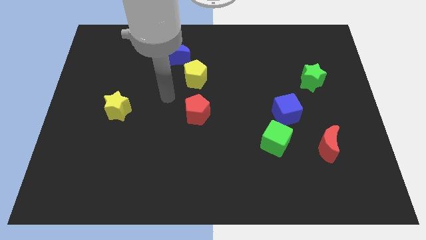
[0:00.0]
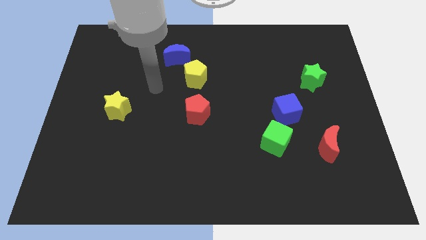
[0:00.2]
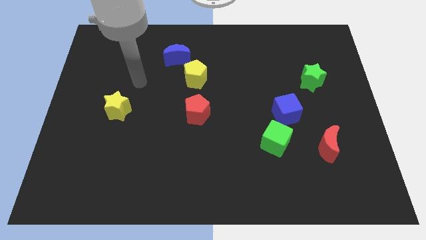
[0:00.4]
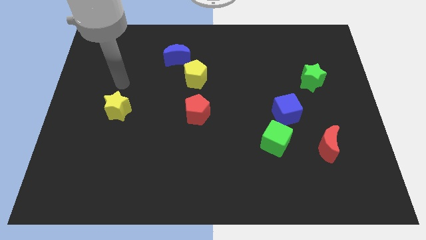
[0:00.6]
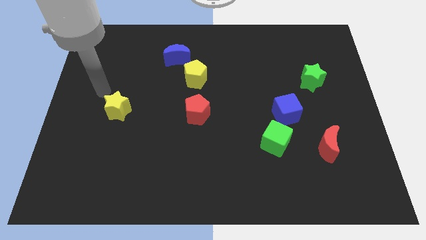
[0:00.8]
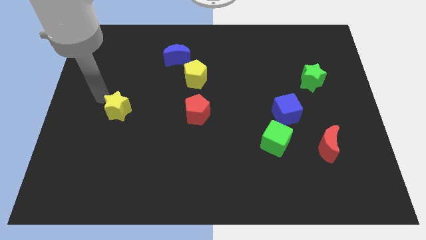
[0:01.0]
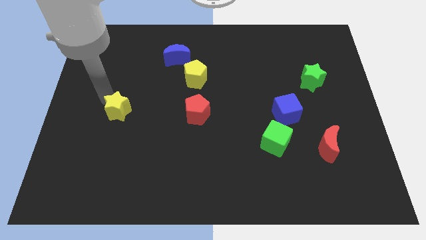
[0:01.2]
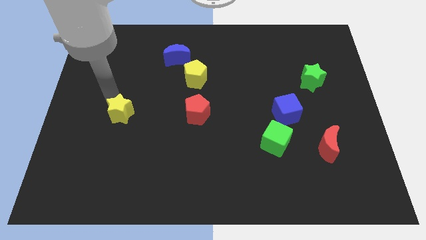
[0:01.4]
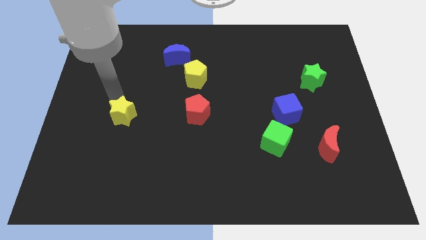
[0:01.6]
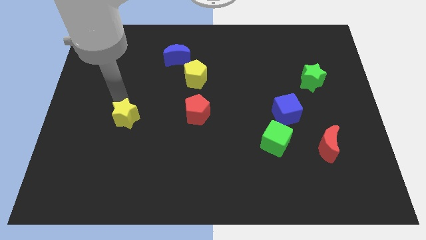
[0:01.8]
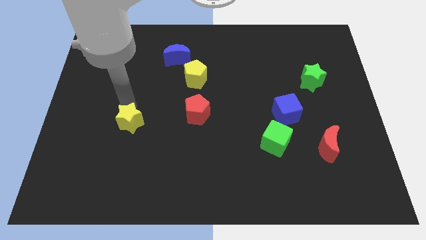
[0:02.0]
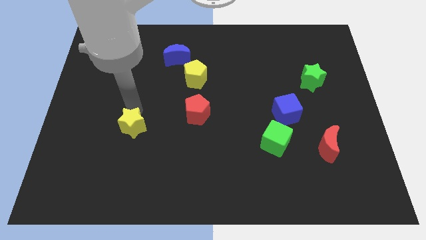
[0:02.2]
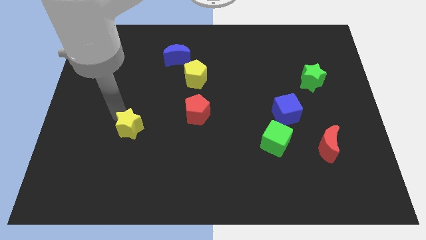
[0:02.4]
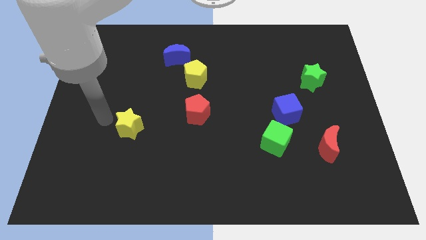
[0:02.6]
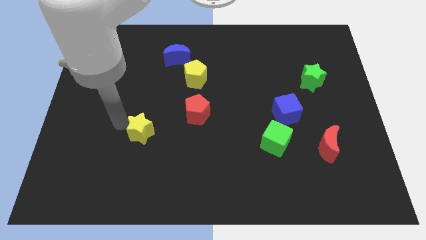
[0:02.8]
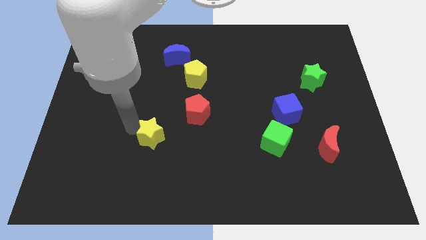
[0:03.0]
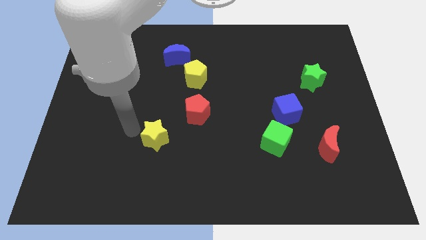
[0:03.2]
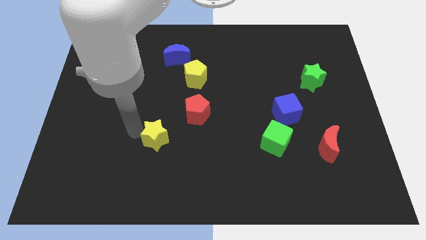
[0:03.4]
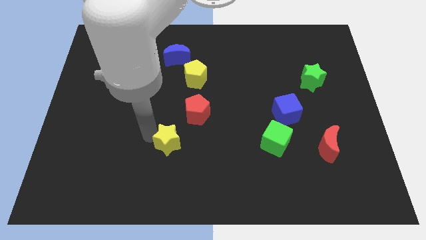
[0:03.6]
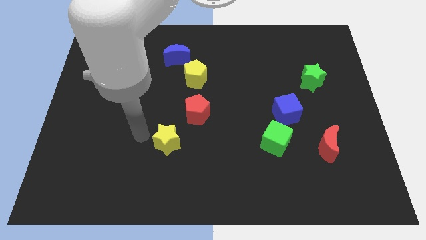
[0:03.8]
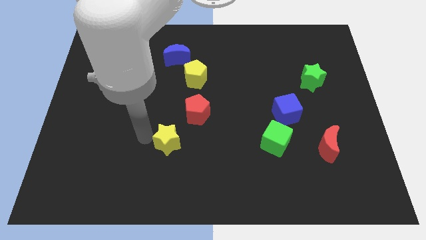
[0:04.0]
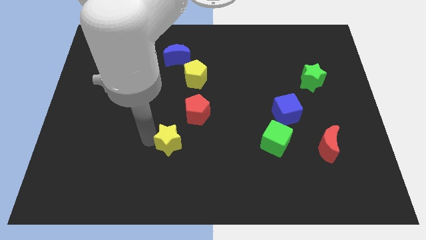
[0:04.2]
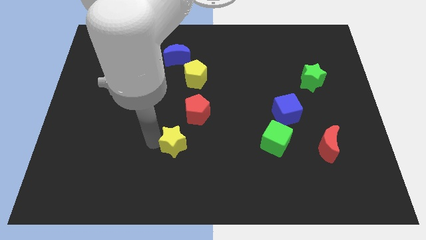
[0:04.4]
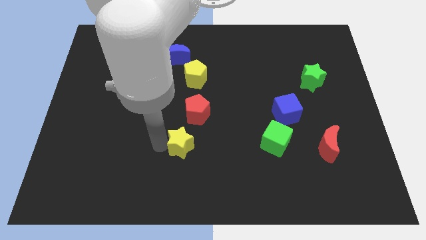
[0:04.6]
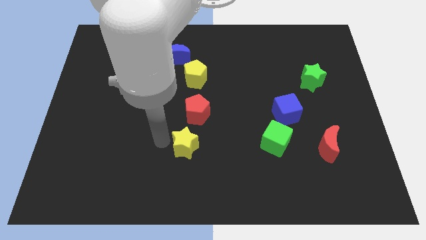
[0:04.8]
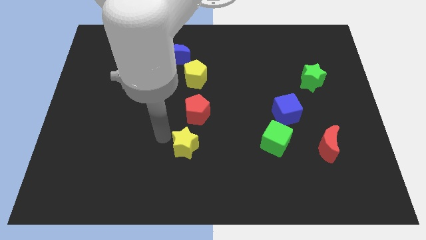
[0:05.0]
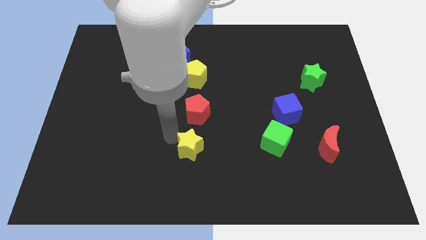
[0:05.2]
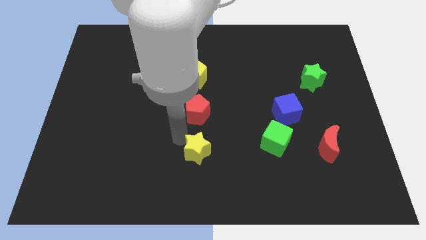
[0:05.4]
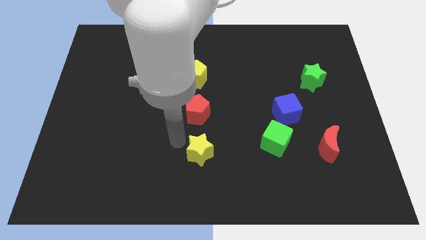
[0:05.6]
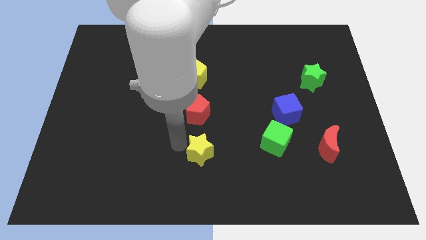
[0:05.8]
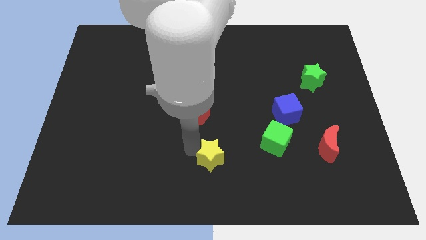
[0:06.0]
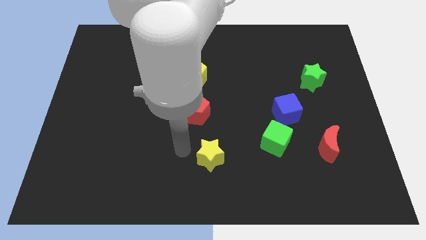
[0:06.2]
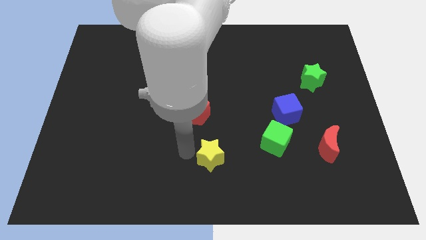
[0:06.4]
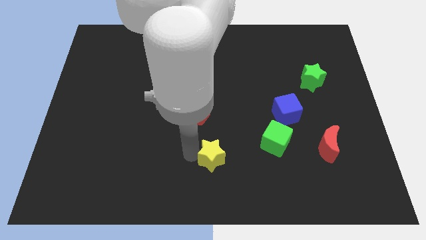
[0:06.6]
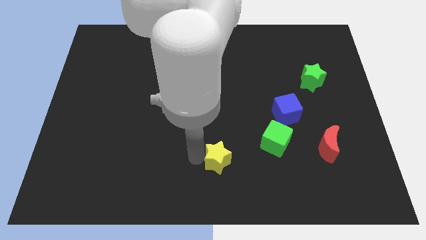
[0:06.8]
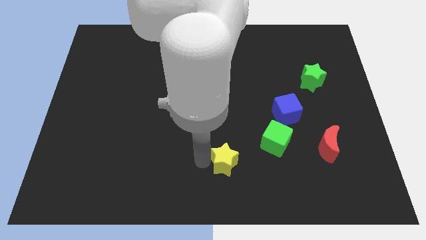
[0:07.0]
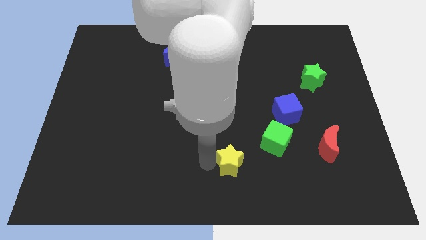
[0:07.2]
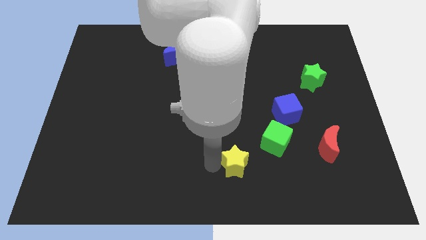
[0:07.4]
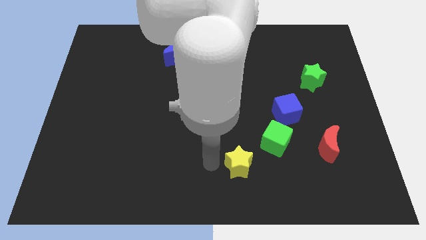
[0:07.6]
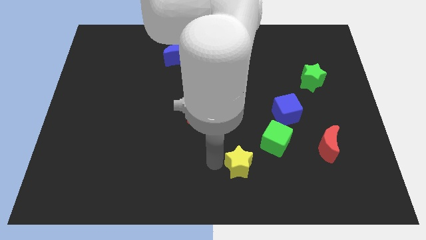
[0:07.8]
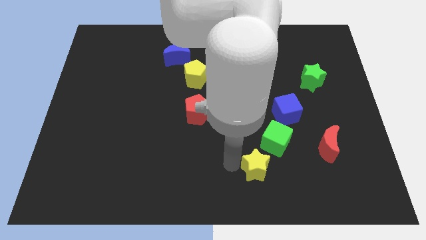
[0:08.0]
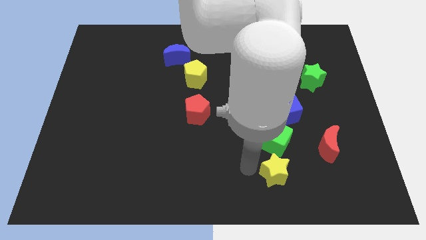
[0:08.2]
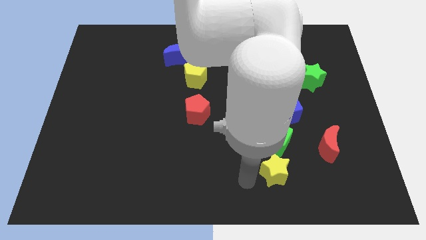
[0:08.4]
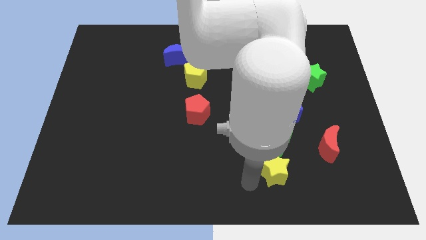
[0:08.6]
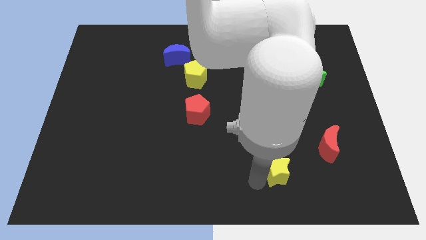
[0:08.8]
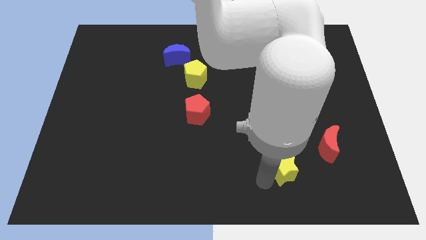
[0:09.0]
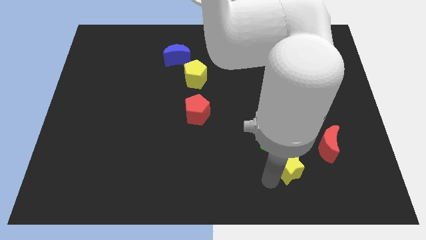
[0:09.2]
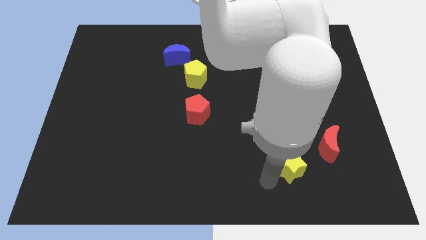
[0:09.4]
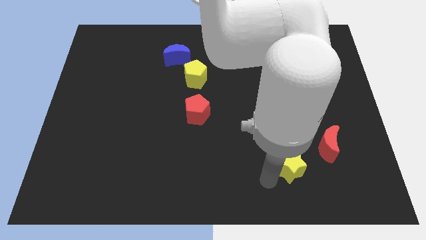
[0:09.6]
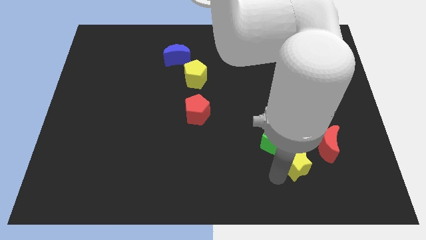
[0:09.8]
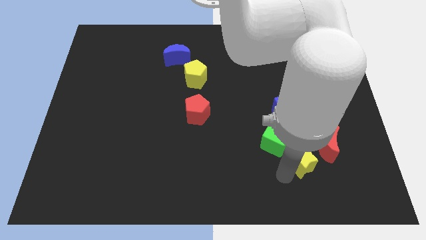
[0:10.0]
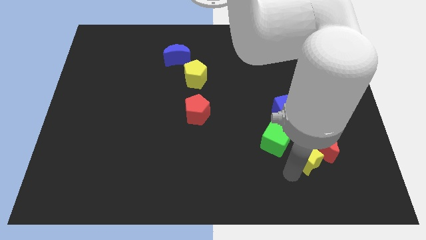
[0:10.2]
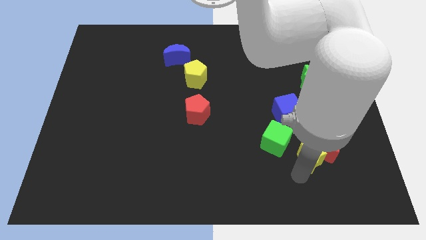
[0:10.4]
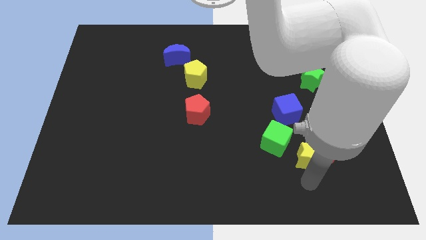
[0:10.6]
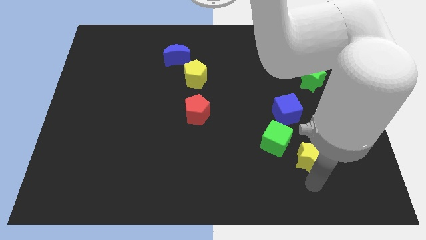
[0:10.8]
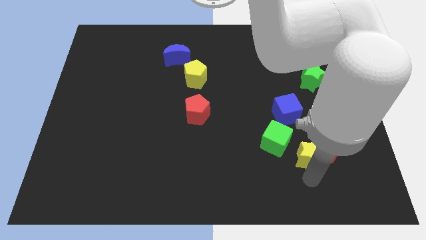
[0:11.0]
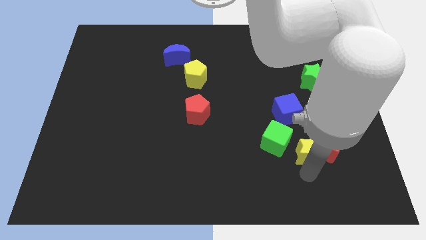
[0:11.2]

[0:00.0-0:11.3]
put the yellow star to the top left side of the red moon
